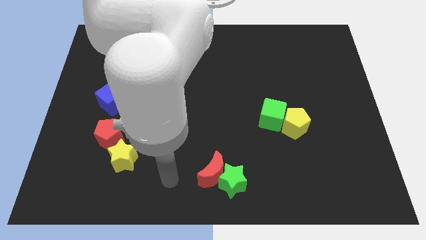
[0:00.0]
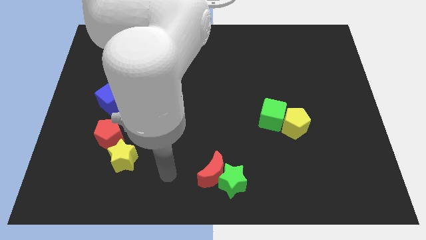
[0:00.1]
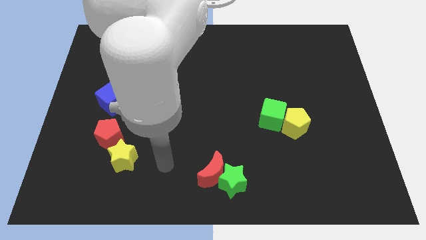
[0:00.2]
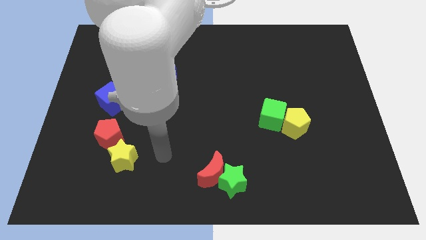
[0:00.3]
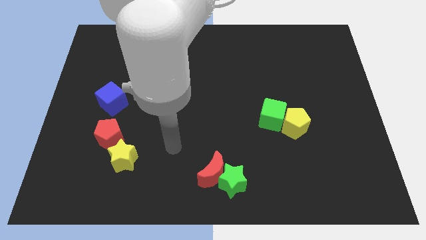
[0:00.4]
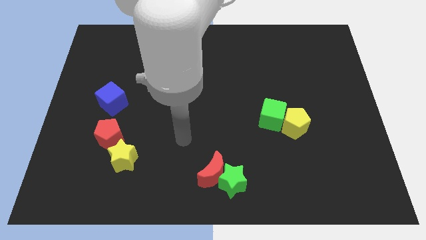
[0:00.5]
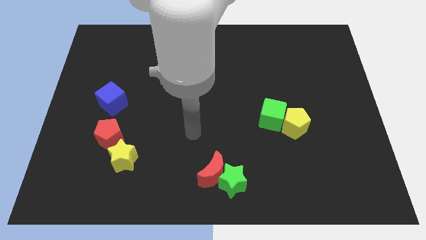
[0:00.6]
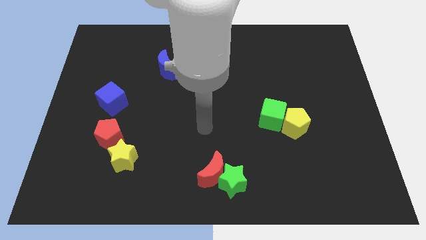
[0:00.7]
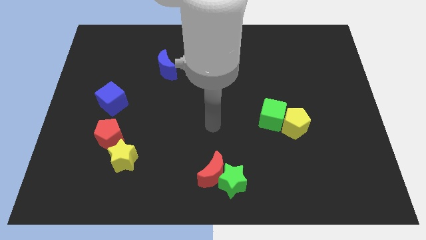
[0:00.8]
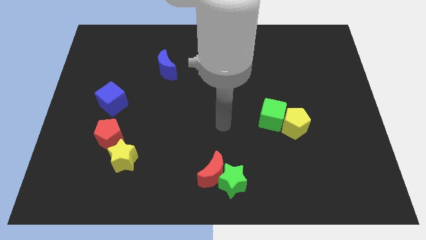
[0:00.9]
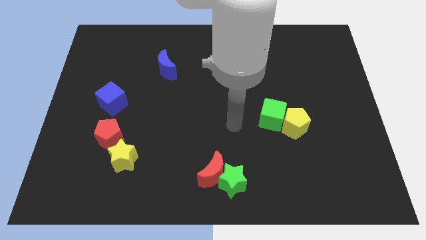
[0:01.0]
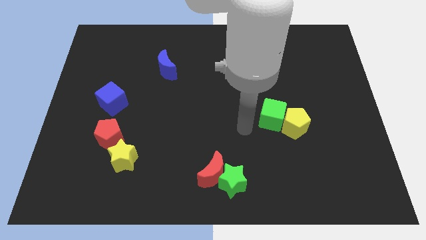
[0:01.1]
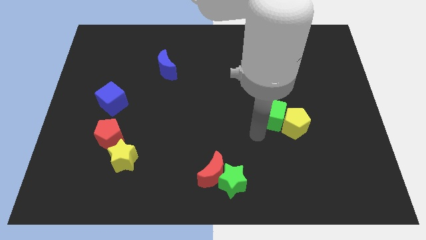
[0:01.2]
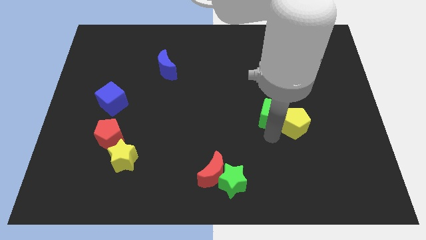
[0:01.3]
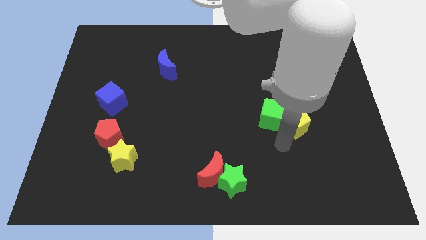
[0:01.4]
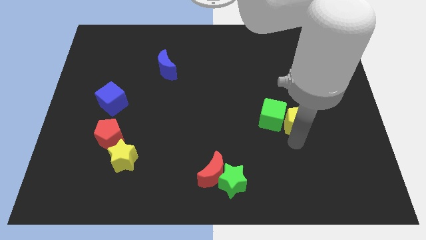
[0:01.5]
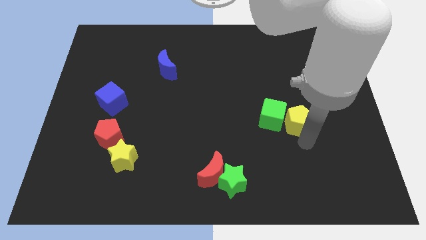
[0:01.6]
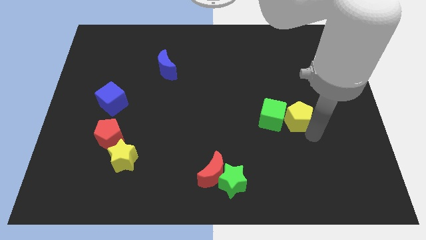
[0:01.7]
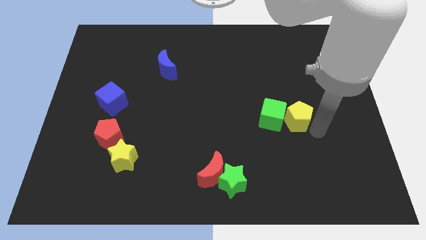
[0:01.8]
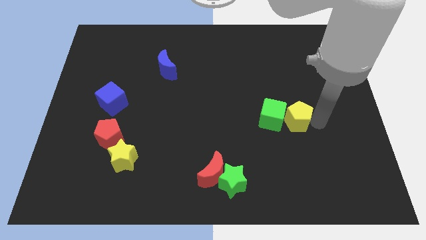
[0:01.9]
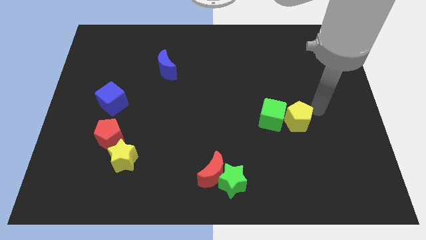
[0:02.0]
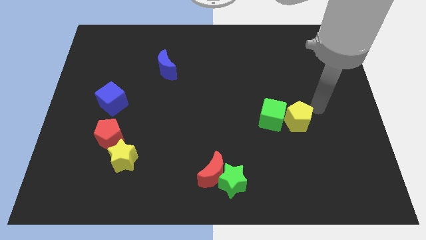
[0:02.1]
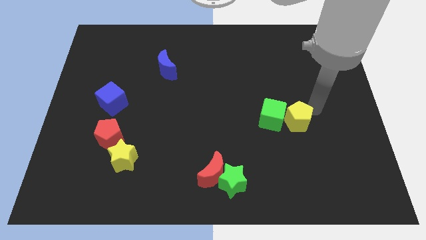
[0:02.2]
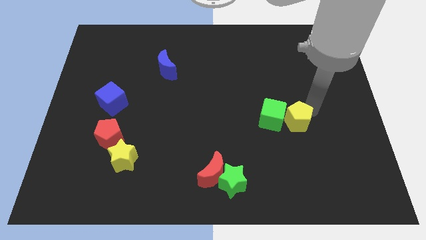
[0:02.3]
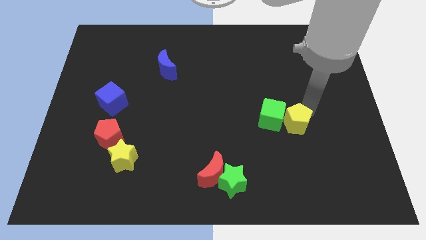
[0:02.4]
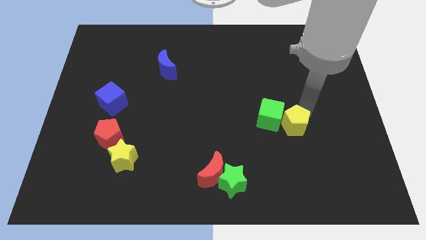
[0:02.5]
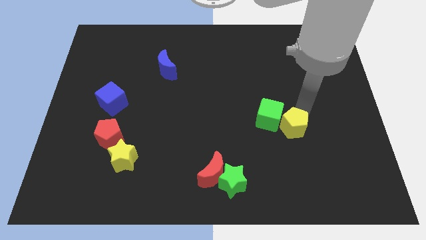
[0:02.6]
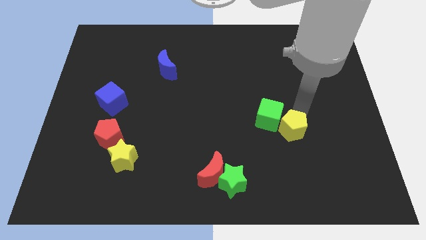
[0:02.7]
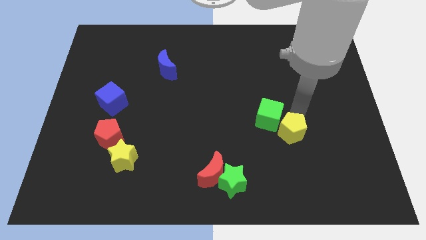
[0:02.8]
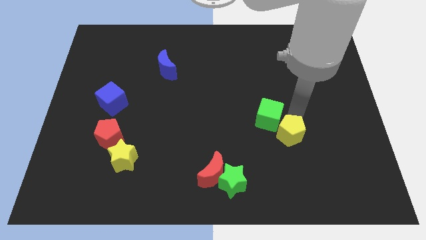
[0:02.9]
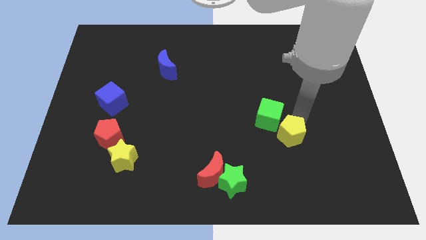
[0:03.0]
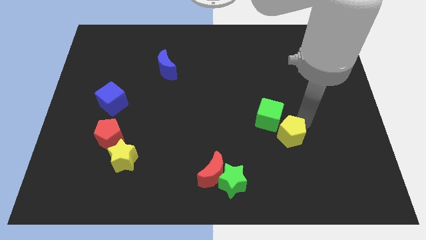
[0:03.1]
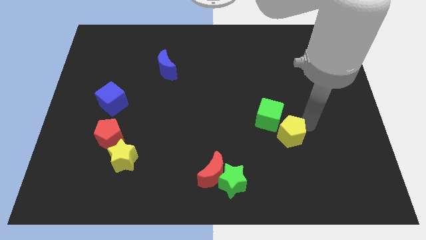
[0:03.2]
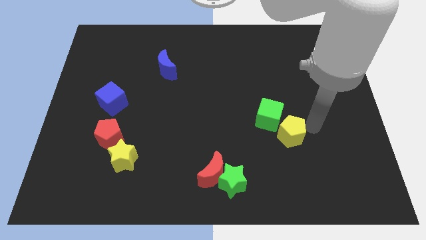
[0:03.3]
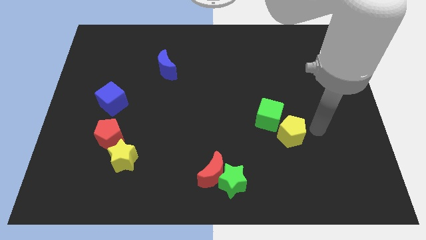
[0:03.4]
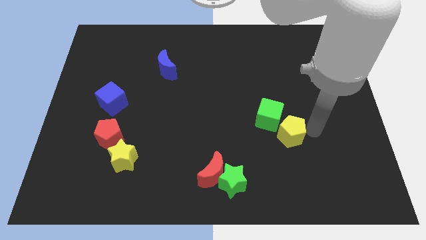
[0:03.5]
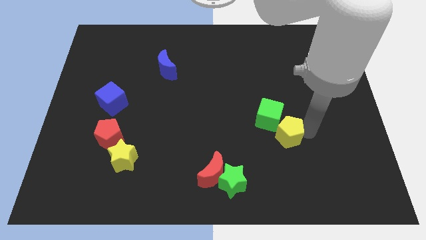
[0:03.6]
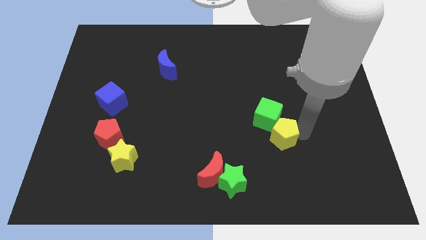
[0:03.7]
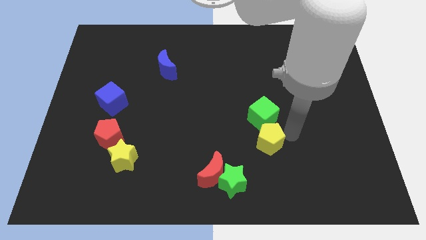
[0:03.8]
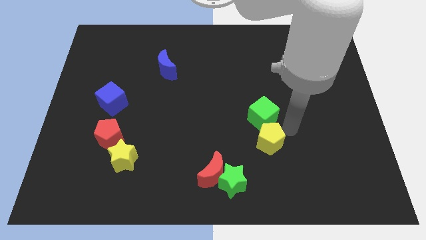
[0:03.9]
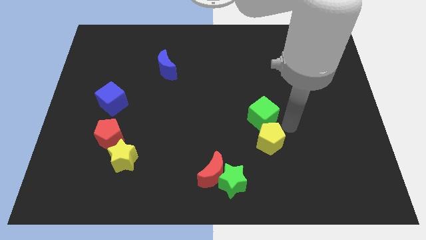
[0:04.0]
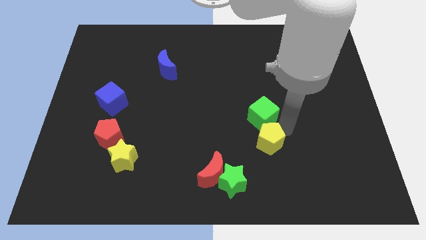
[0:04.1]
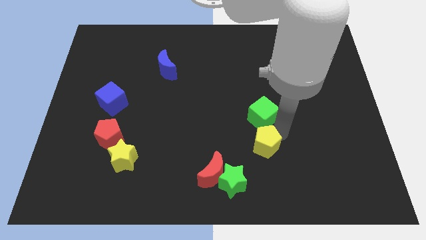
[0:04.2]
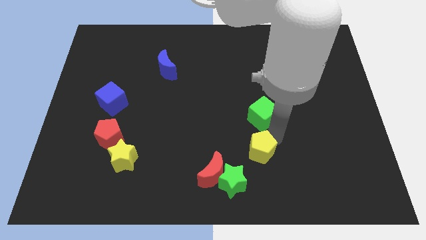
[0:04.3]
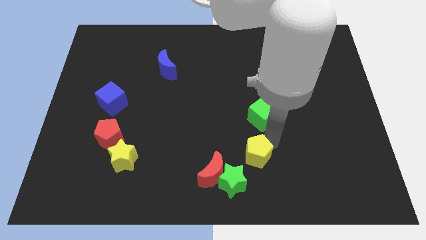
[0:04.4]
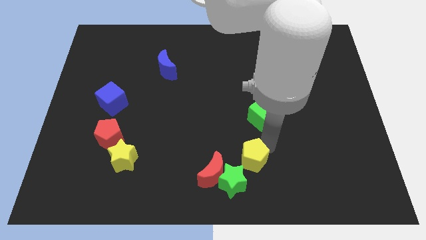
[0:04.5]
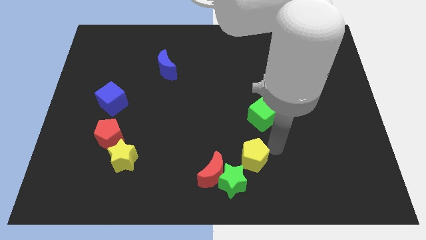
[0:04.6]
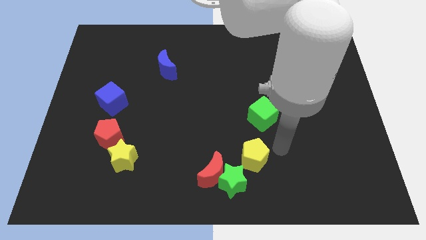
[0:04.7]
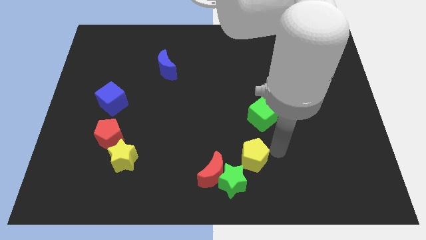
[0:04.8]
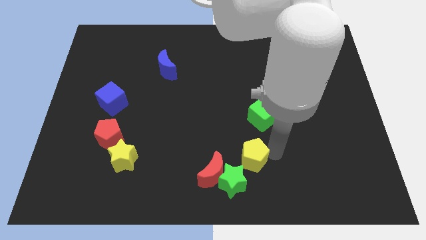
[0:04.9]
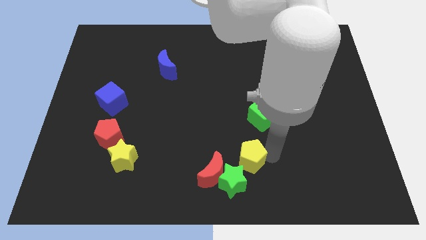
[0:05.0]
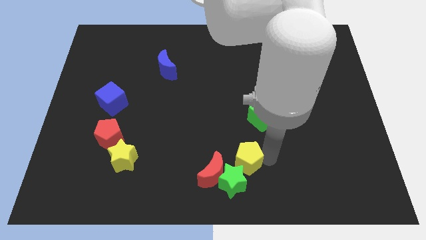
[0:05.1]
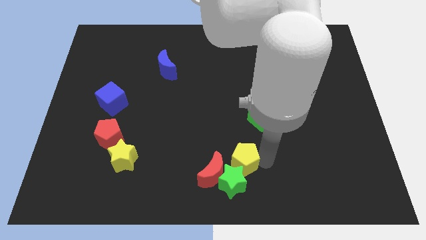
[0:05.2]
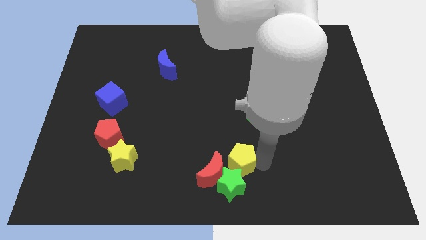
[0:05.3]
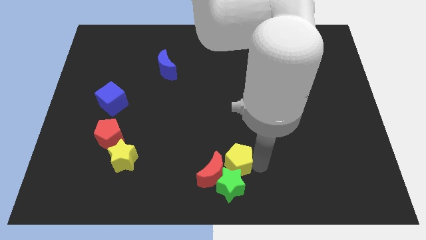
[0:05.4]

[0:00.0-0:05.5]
push the yellow pentagon close to the red moon

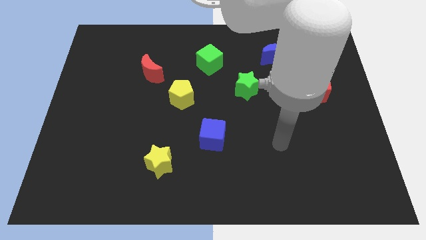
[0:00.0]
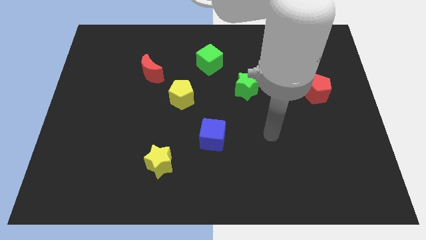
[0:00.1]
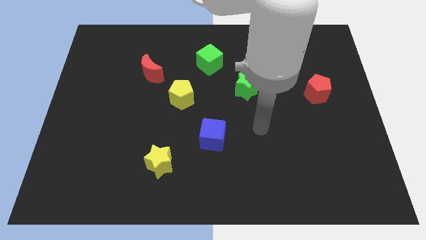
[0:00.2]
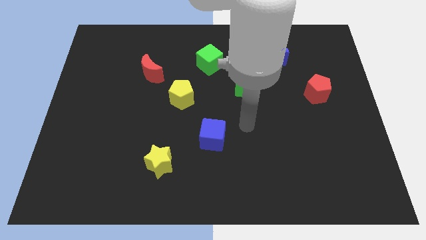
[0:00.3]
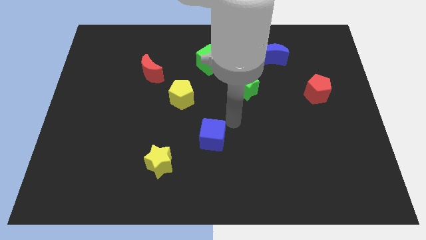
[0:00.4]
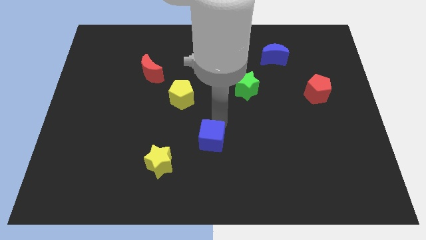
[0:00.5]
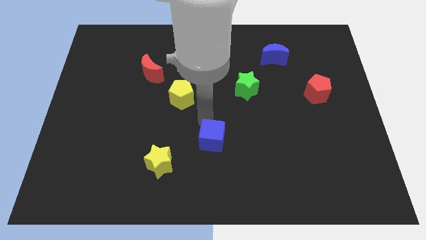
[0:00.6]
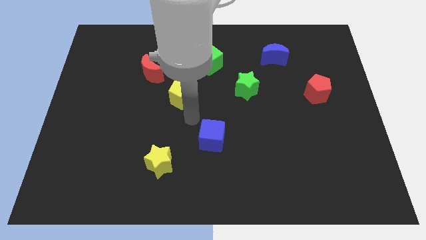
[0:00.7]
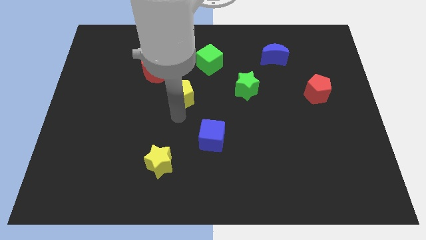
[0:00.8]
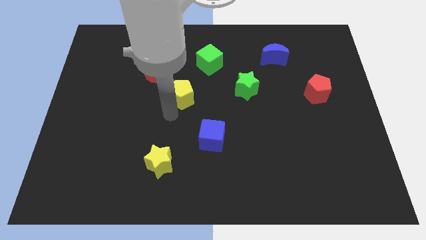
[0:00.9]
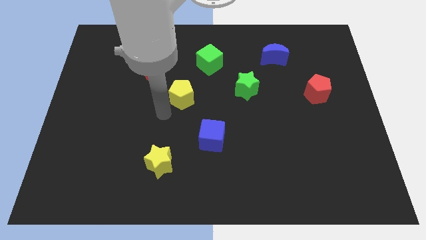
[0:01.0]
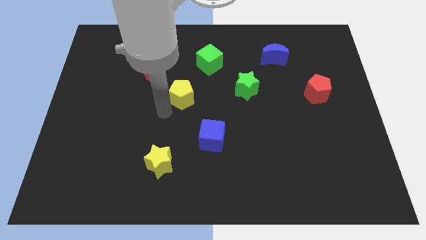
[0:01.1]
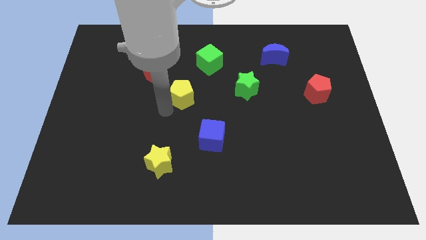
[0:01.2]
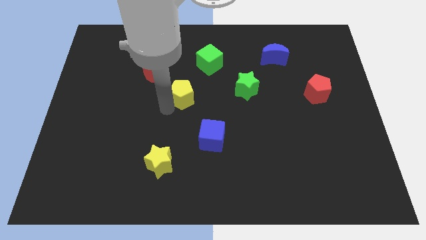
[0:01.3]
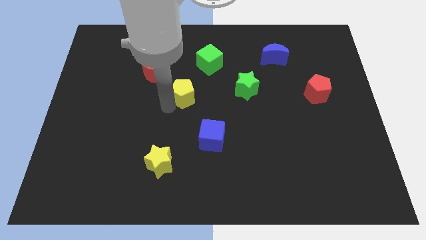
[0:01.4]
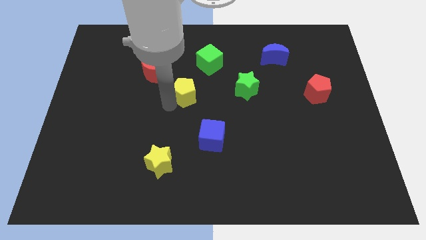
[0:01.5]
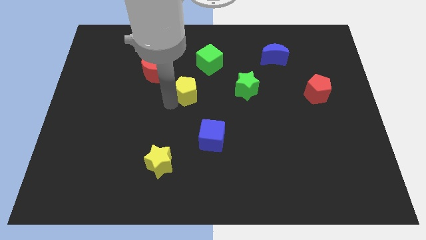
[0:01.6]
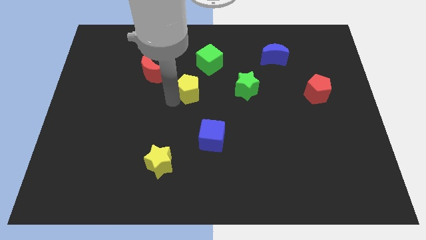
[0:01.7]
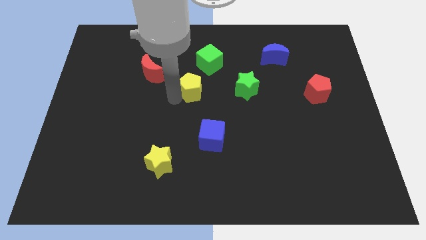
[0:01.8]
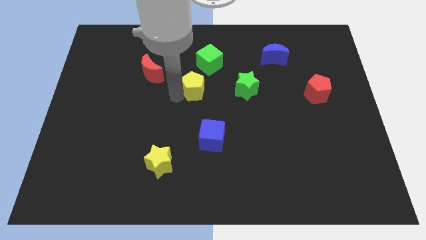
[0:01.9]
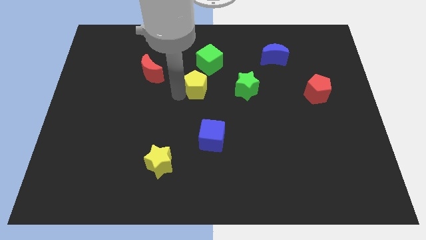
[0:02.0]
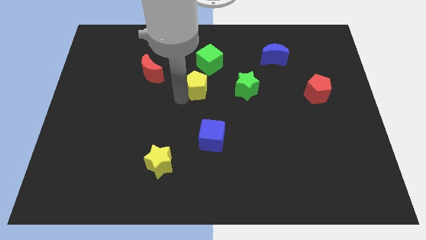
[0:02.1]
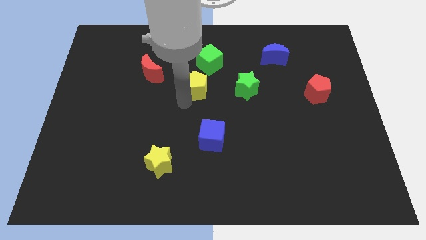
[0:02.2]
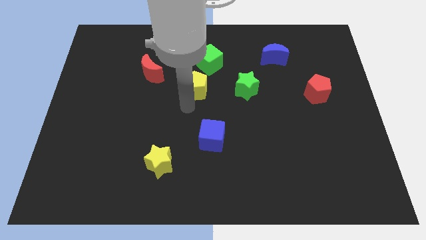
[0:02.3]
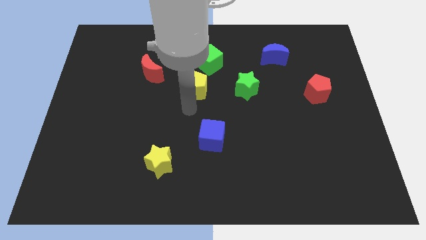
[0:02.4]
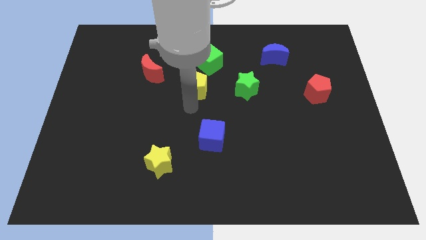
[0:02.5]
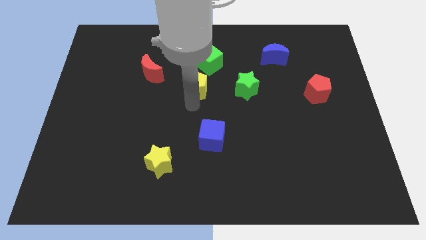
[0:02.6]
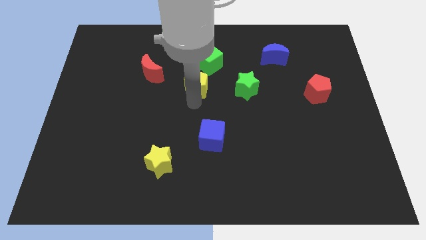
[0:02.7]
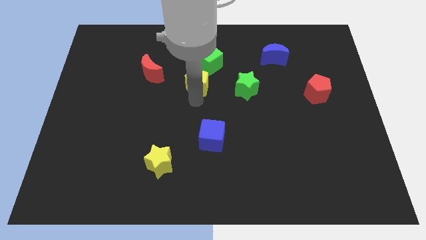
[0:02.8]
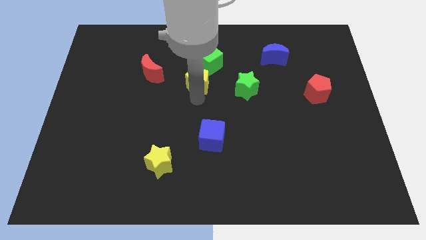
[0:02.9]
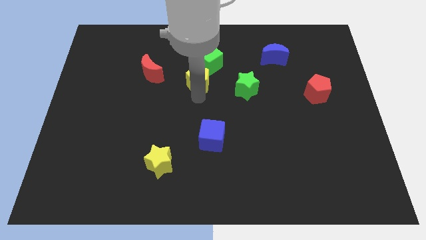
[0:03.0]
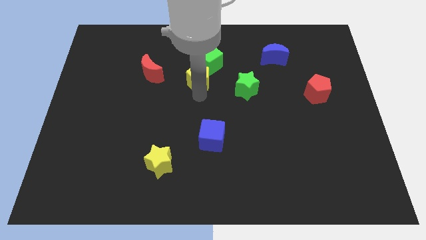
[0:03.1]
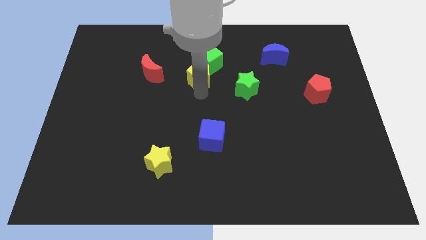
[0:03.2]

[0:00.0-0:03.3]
put the yellow pentagon close to the green cube
